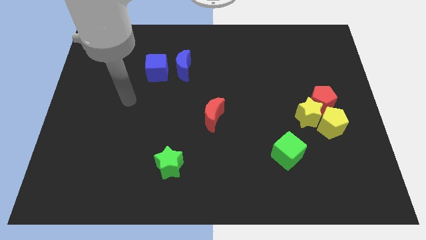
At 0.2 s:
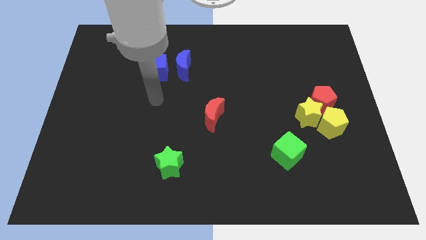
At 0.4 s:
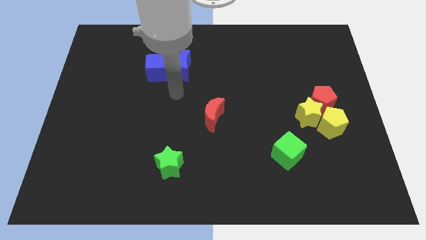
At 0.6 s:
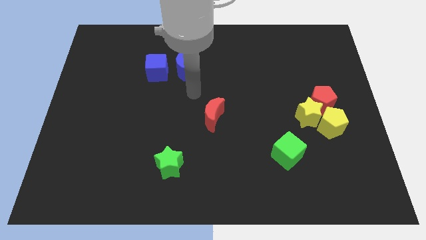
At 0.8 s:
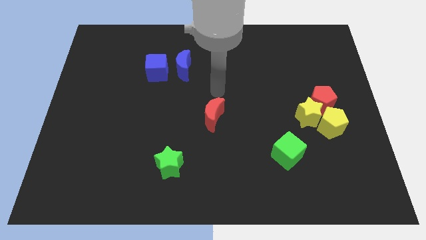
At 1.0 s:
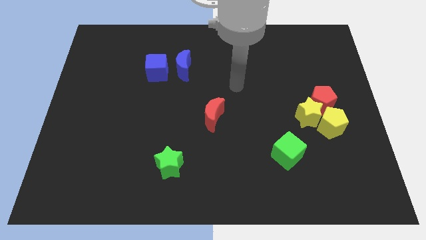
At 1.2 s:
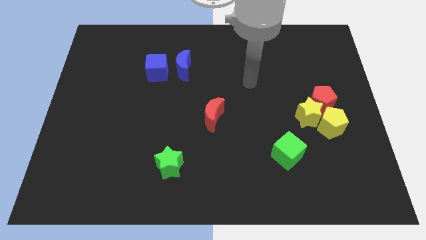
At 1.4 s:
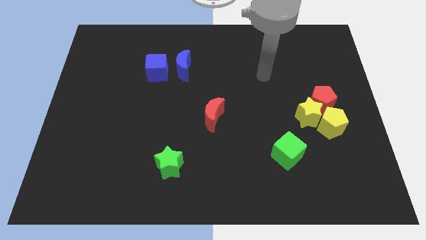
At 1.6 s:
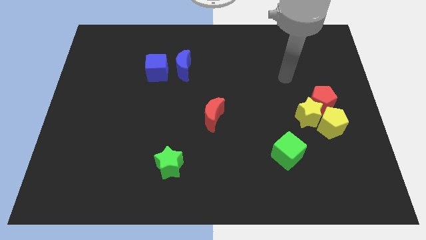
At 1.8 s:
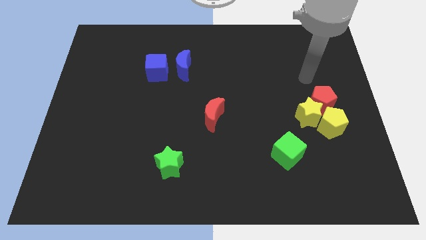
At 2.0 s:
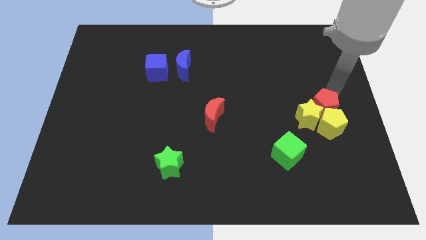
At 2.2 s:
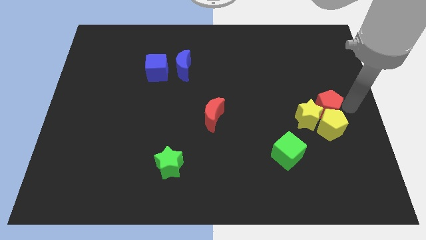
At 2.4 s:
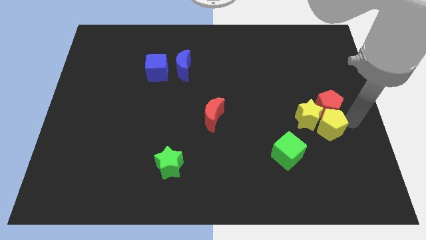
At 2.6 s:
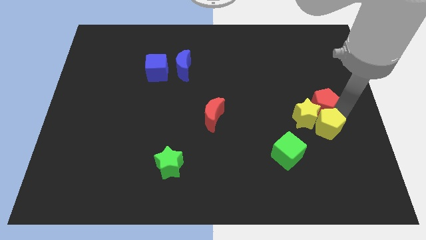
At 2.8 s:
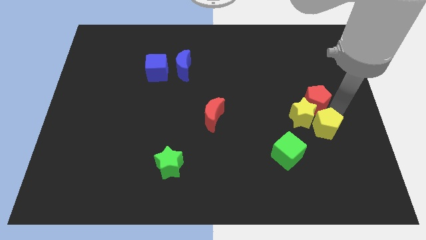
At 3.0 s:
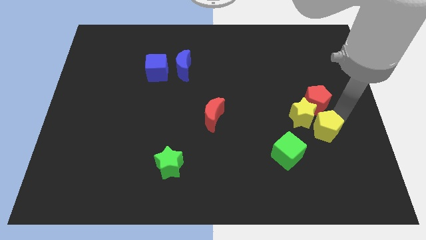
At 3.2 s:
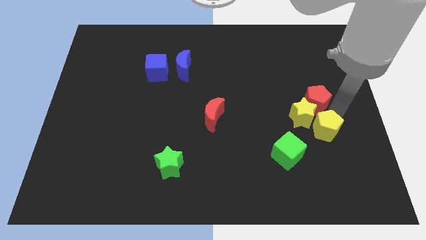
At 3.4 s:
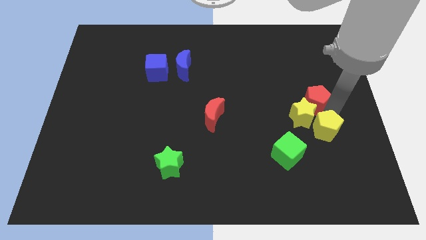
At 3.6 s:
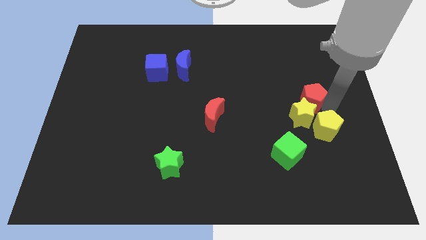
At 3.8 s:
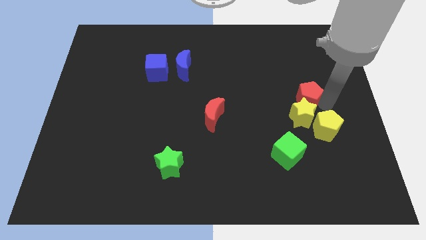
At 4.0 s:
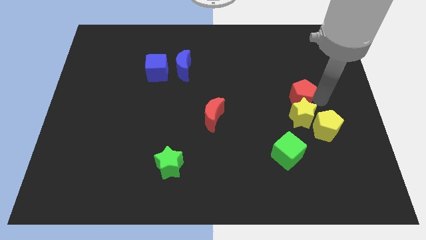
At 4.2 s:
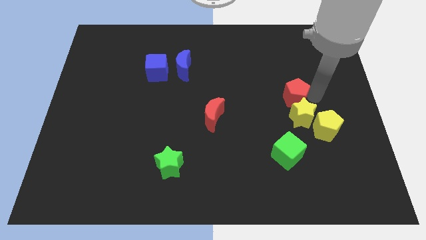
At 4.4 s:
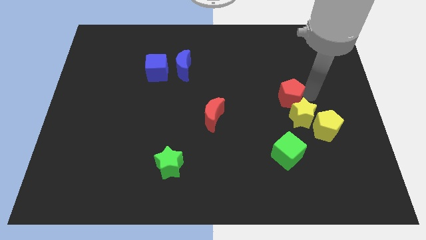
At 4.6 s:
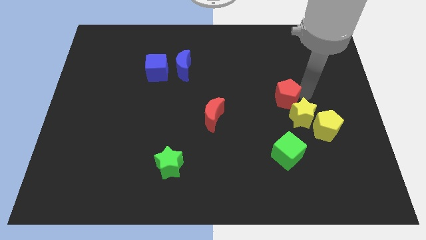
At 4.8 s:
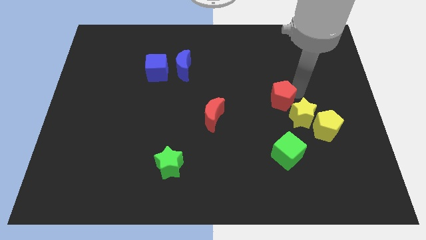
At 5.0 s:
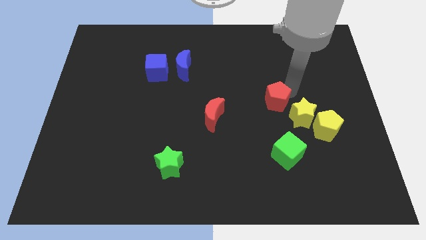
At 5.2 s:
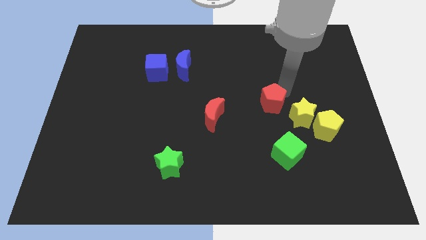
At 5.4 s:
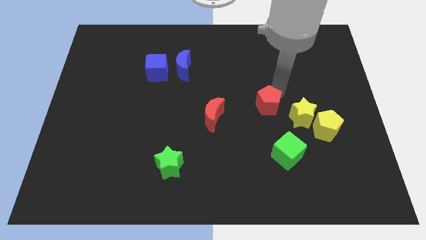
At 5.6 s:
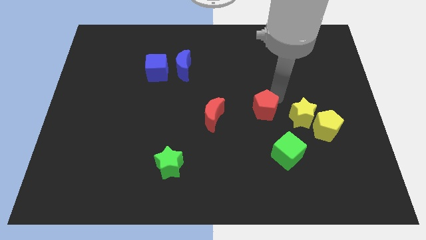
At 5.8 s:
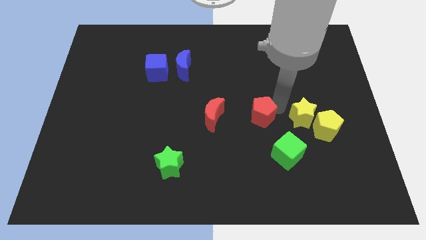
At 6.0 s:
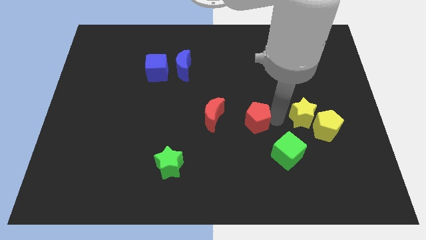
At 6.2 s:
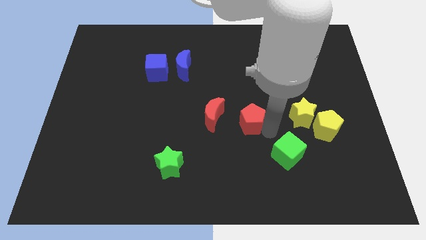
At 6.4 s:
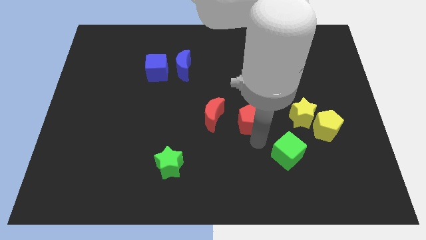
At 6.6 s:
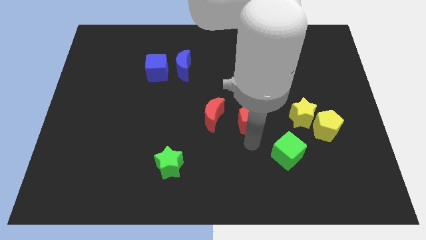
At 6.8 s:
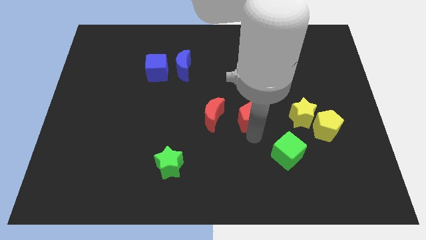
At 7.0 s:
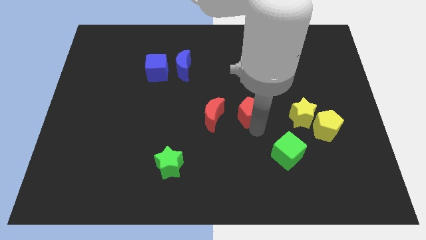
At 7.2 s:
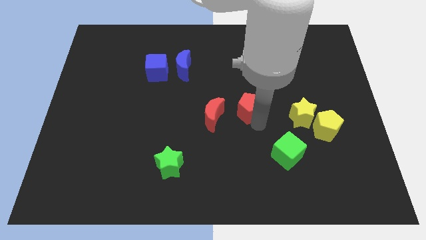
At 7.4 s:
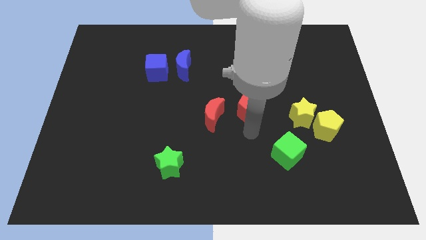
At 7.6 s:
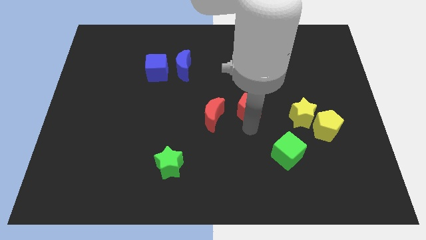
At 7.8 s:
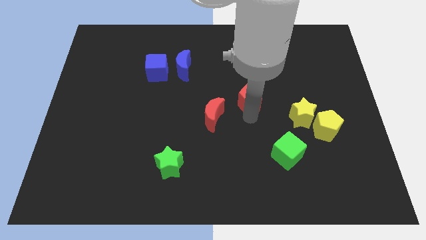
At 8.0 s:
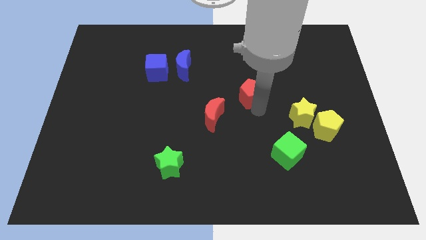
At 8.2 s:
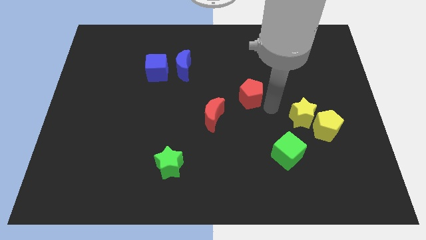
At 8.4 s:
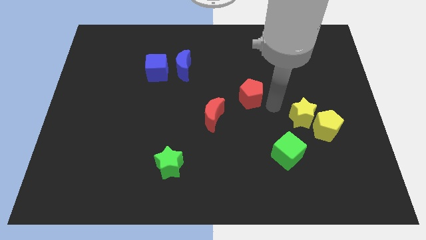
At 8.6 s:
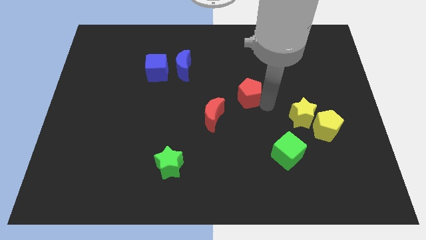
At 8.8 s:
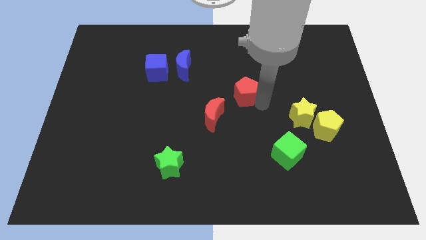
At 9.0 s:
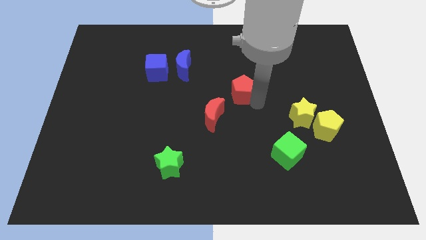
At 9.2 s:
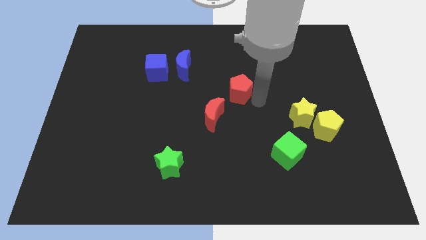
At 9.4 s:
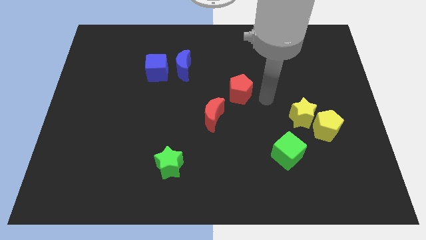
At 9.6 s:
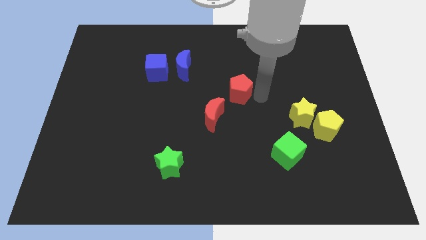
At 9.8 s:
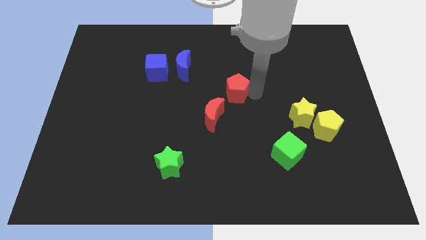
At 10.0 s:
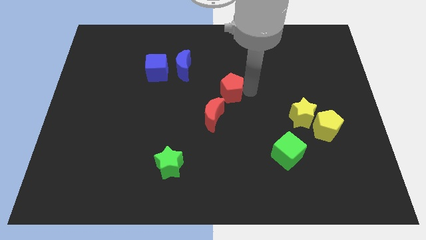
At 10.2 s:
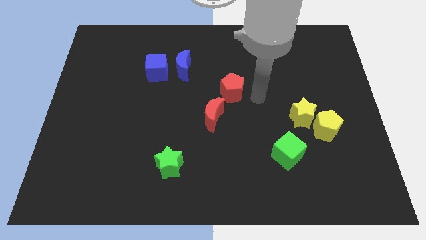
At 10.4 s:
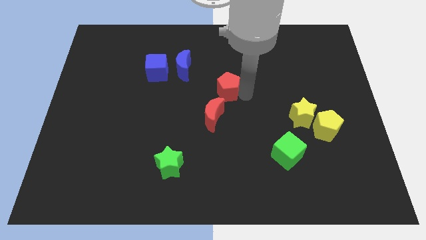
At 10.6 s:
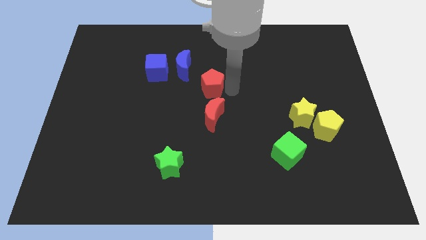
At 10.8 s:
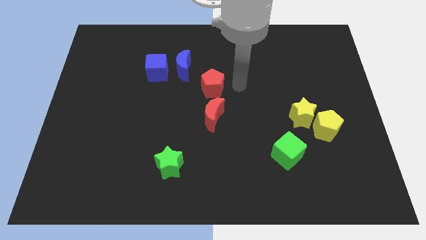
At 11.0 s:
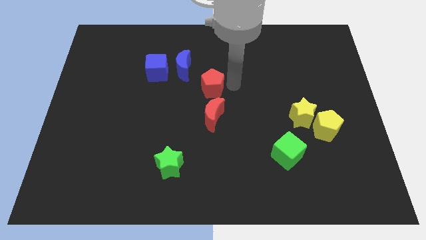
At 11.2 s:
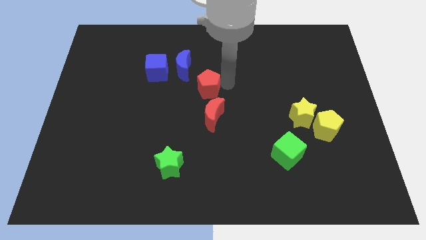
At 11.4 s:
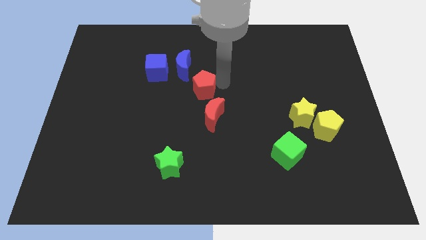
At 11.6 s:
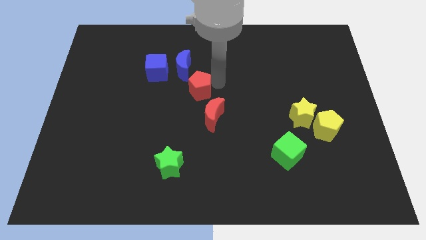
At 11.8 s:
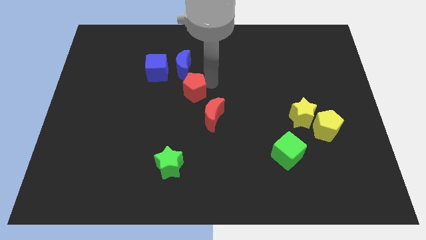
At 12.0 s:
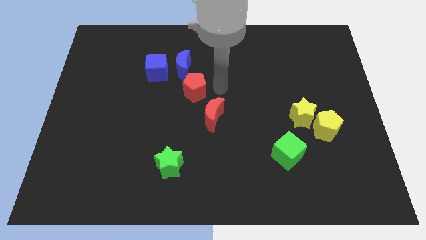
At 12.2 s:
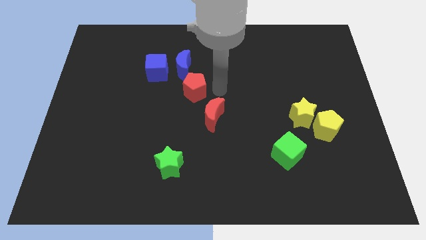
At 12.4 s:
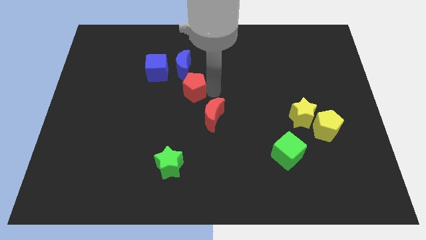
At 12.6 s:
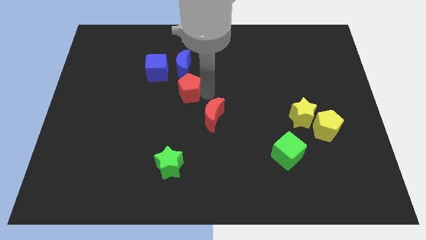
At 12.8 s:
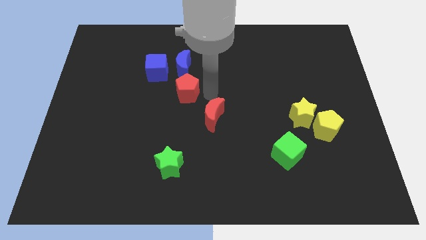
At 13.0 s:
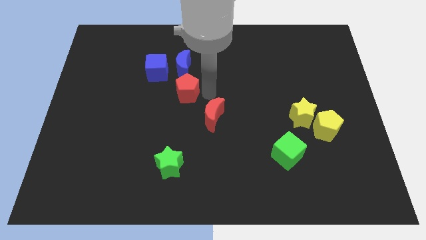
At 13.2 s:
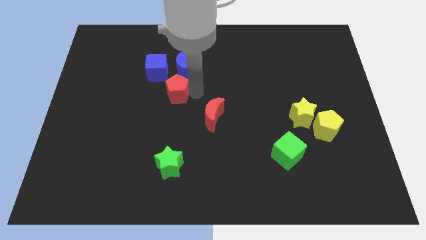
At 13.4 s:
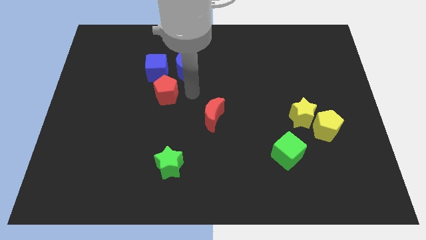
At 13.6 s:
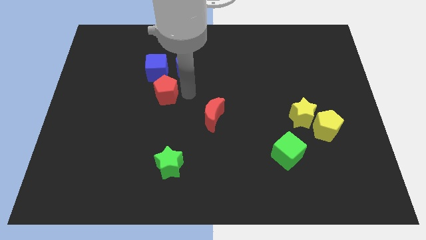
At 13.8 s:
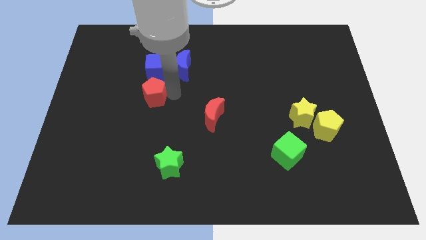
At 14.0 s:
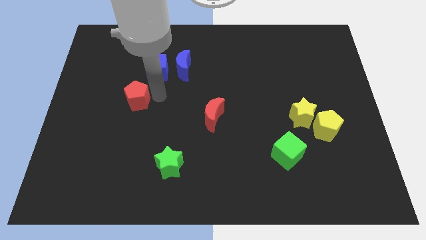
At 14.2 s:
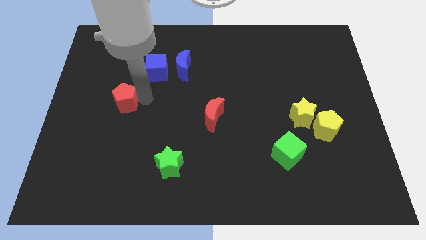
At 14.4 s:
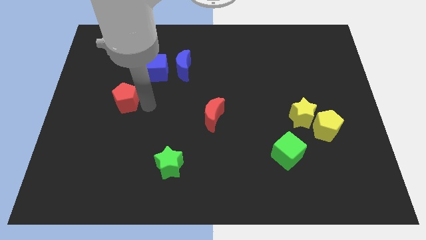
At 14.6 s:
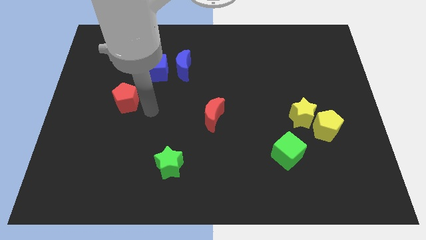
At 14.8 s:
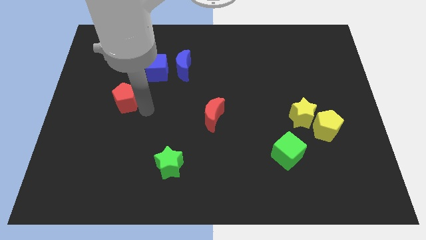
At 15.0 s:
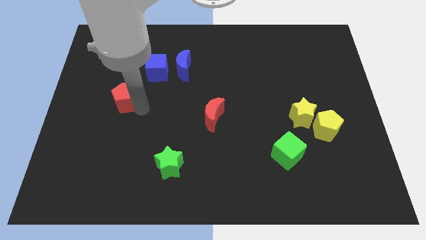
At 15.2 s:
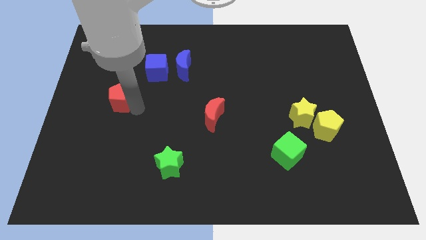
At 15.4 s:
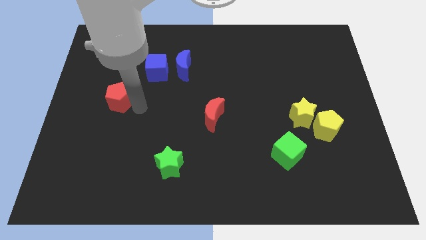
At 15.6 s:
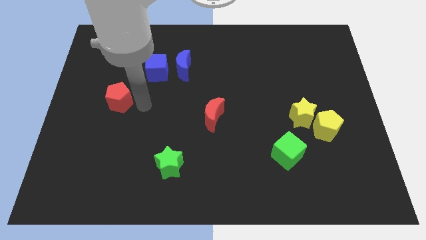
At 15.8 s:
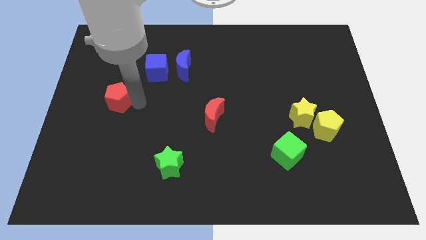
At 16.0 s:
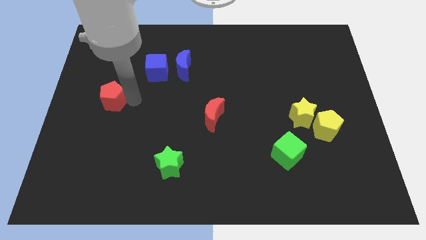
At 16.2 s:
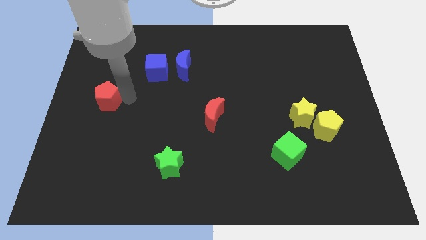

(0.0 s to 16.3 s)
move the red pentagon to the left side of the board
